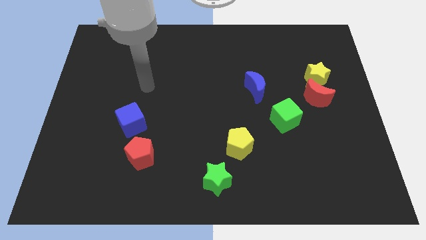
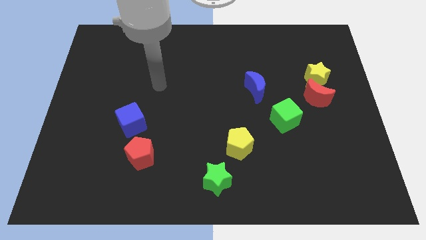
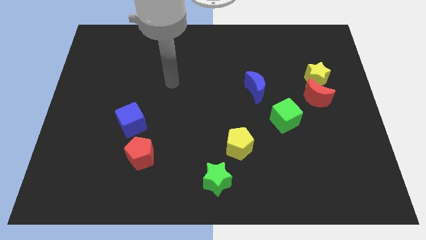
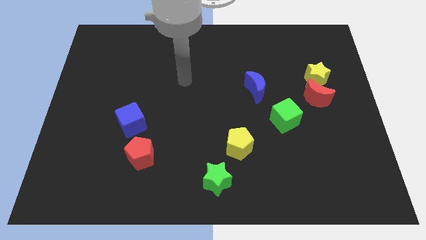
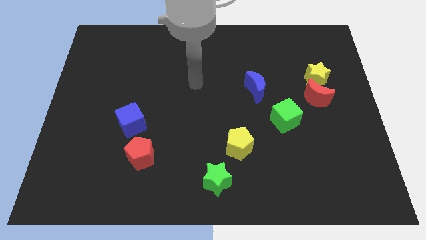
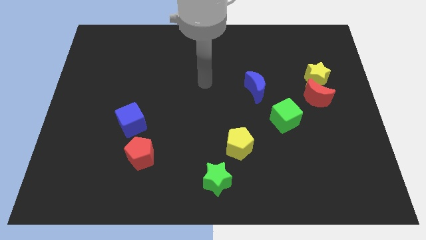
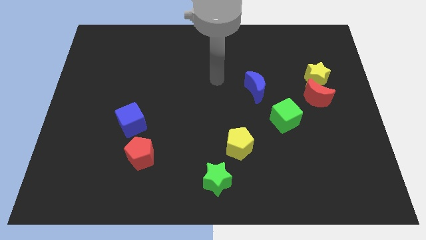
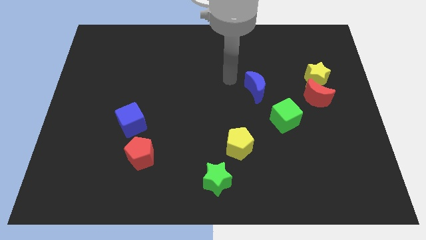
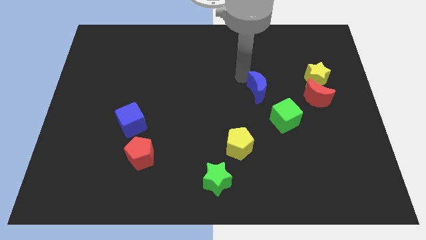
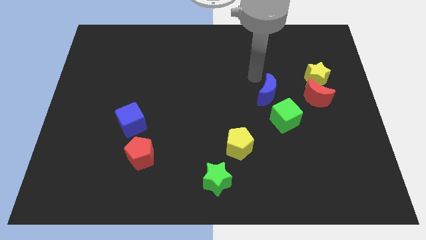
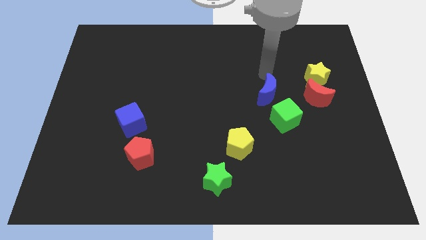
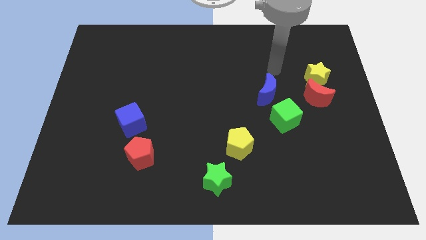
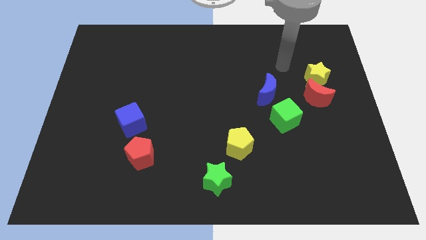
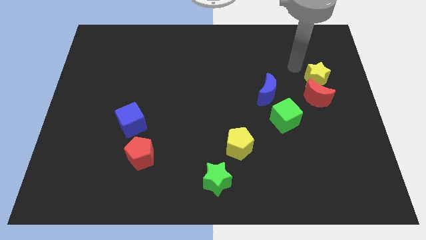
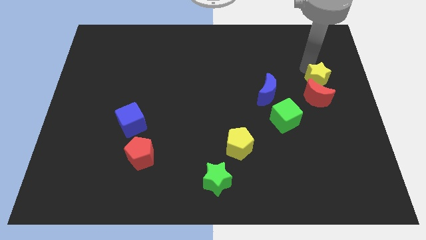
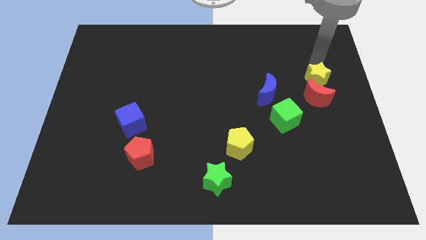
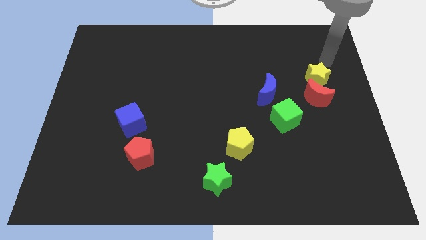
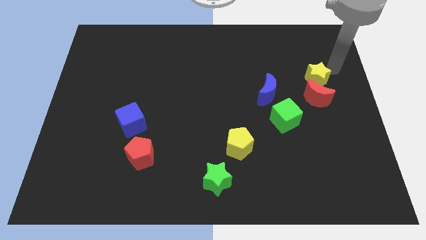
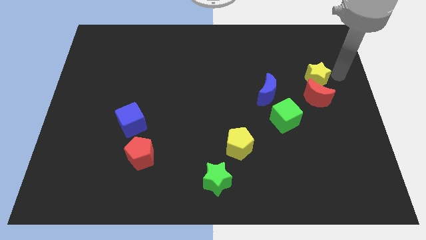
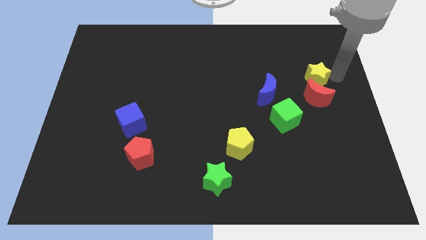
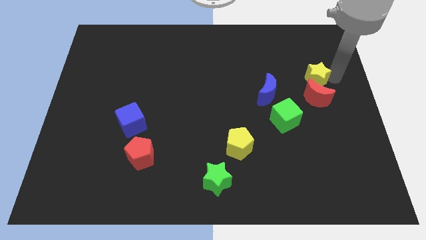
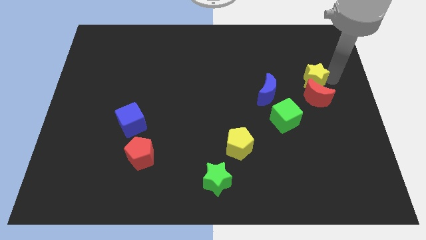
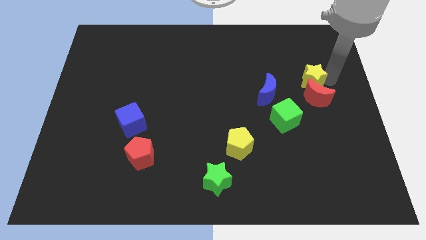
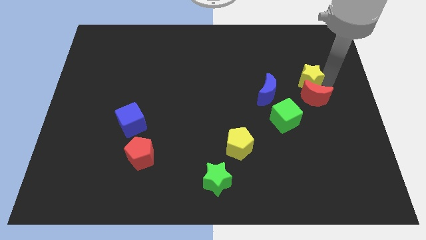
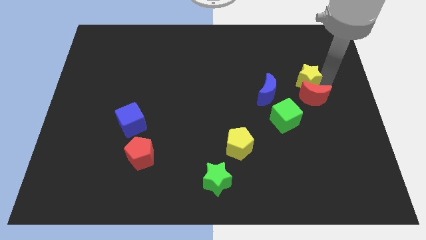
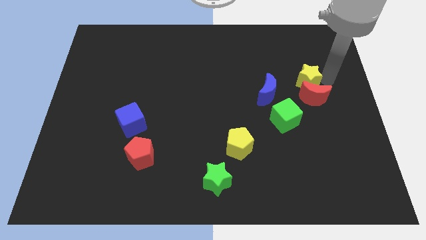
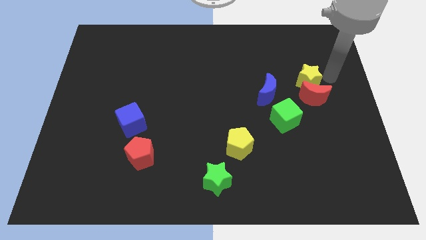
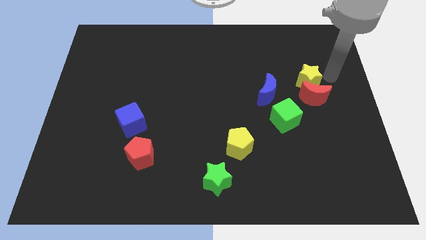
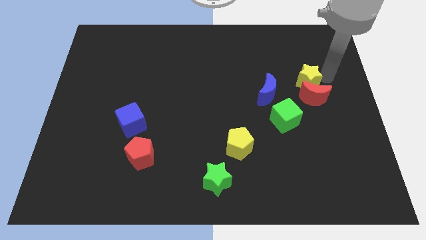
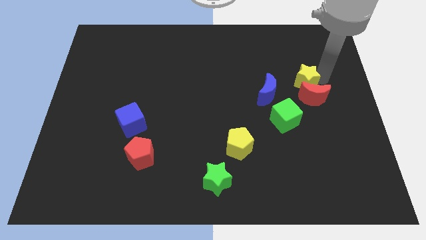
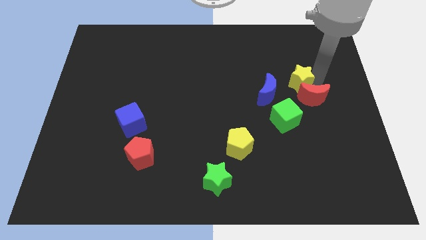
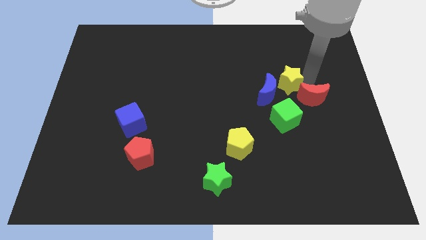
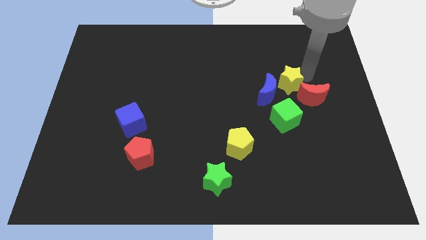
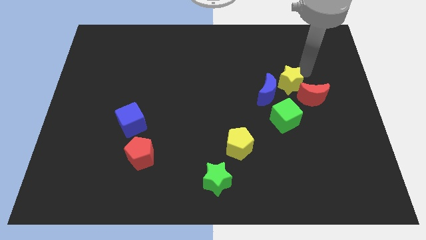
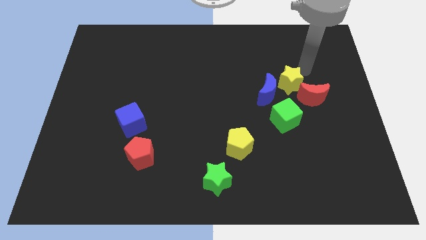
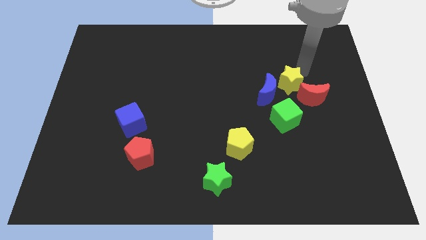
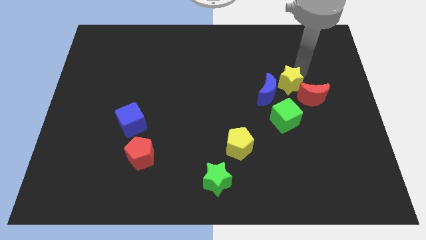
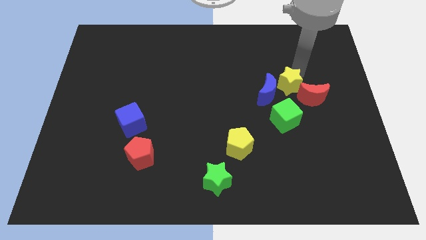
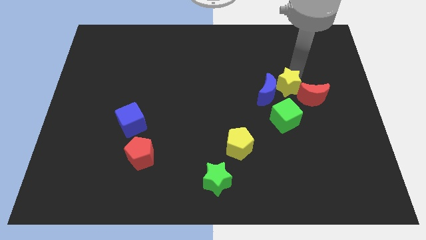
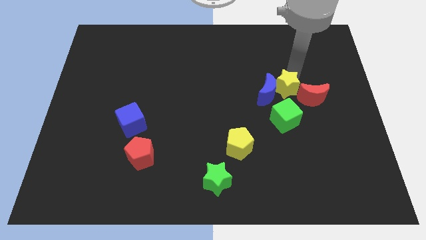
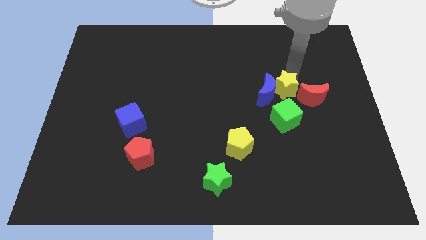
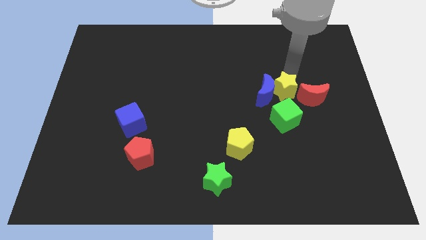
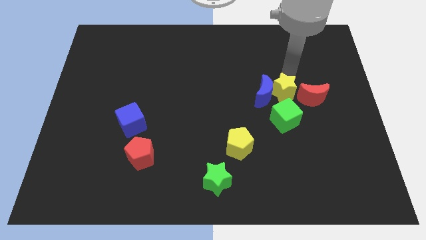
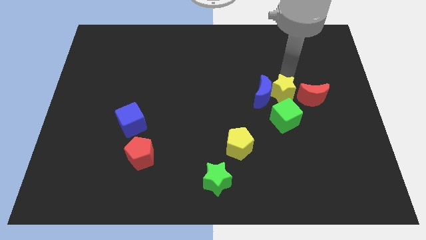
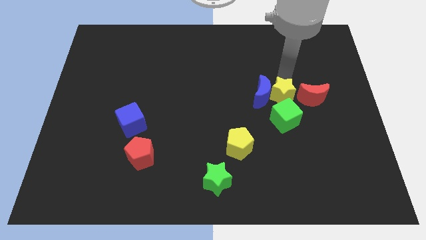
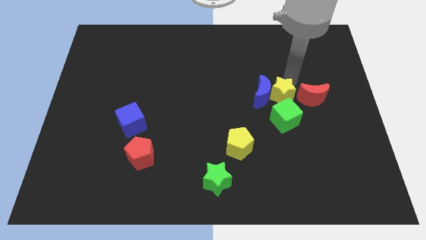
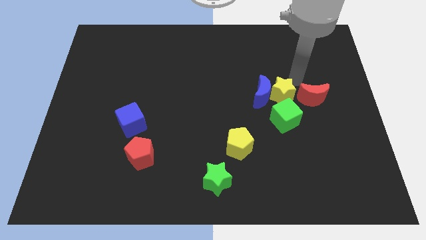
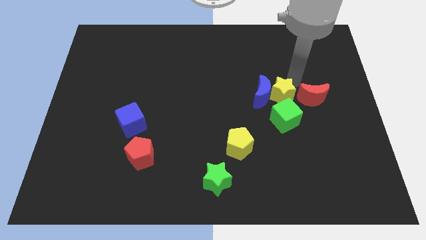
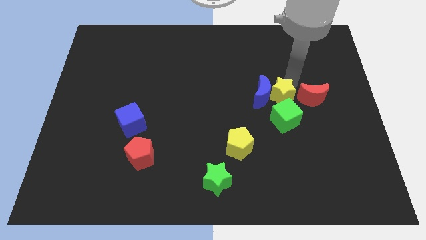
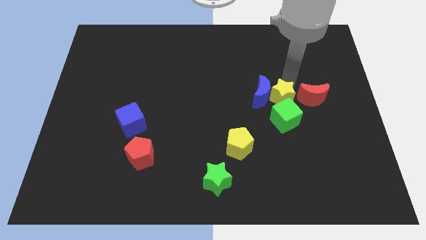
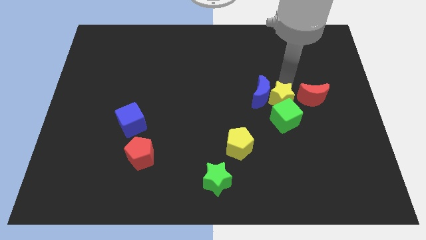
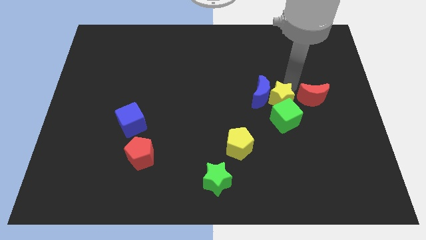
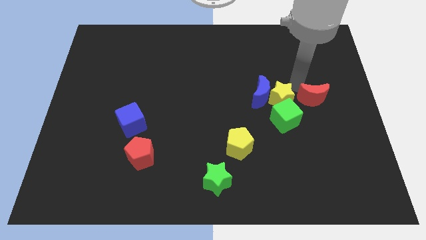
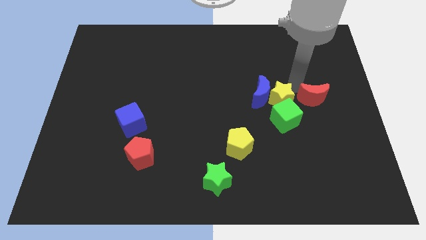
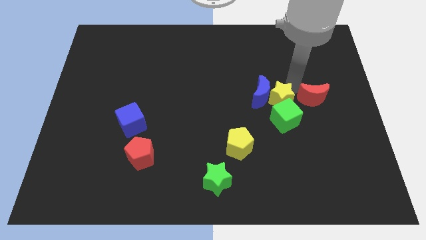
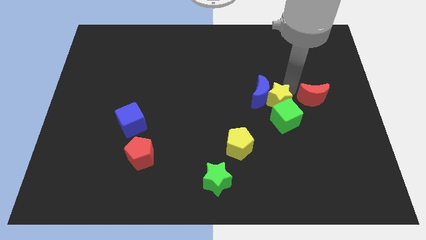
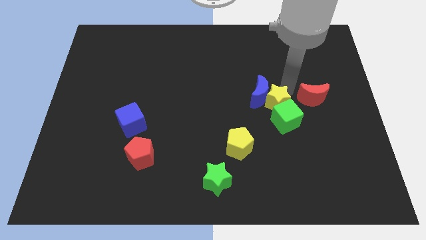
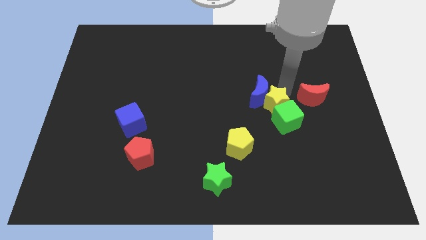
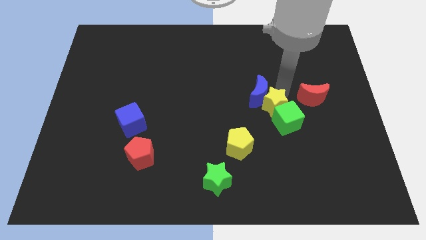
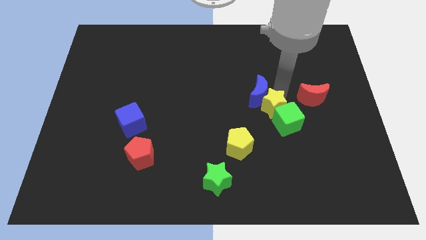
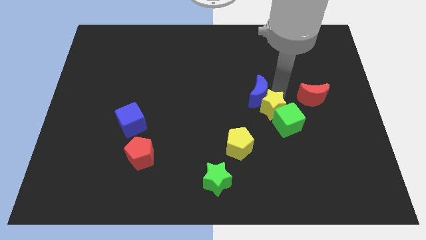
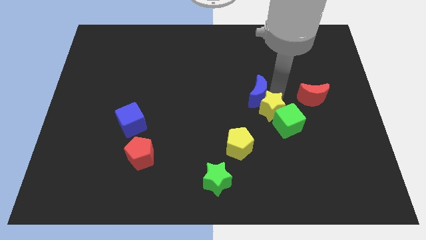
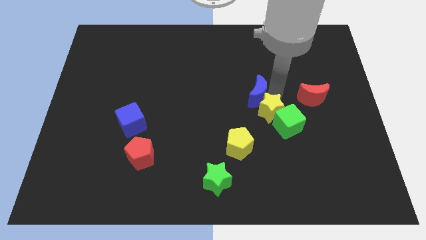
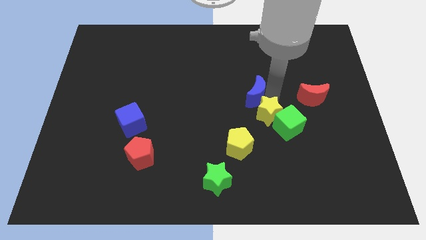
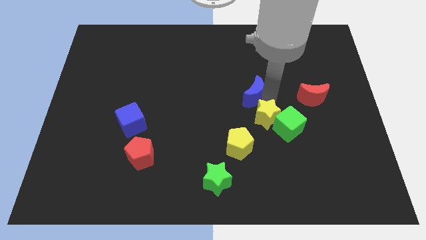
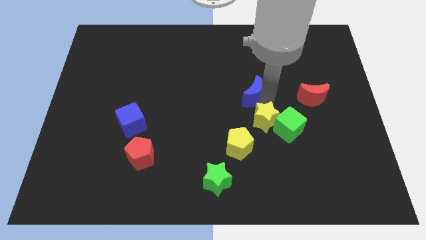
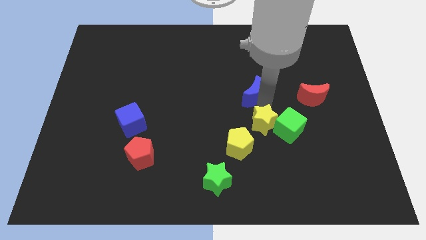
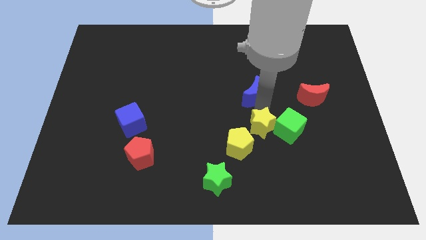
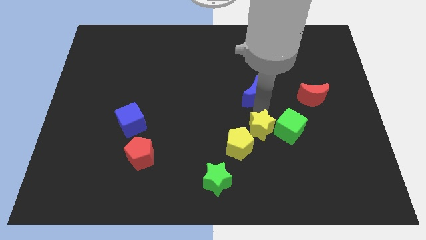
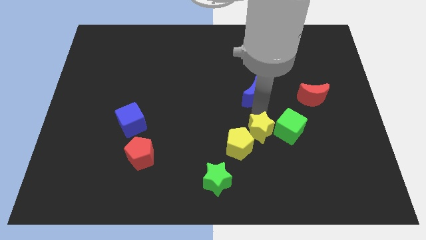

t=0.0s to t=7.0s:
slide the yellow star next to the yellow pentagon

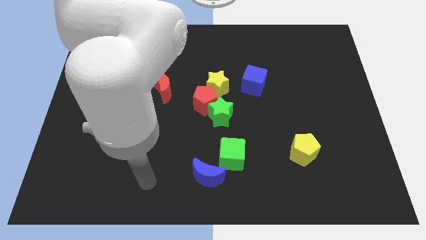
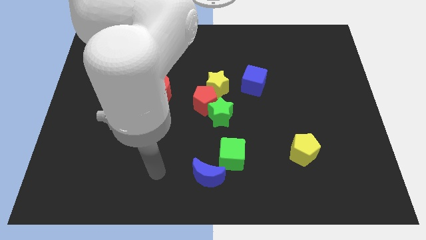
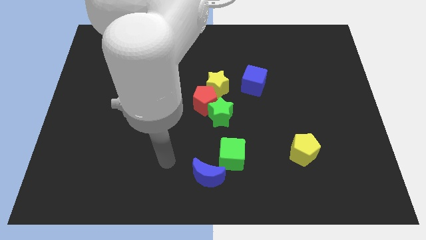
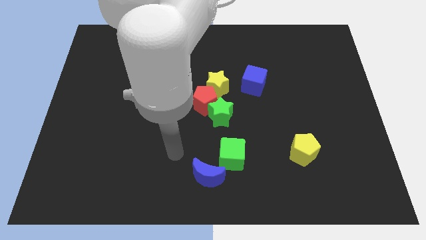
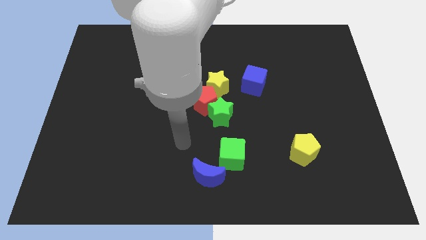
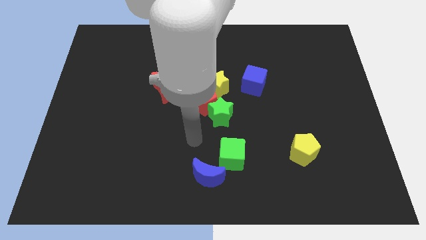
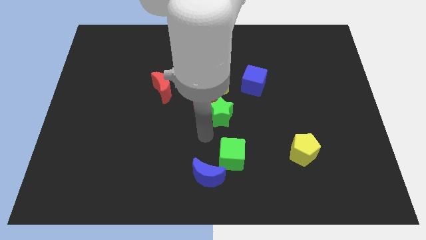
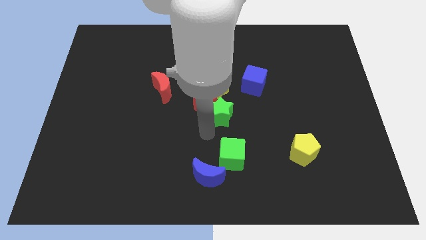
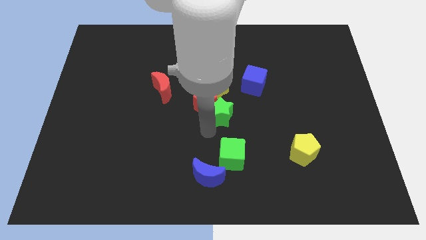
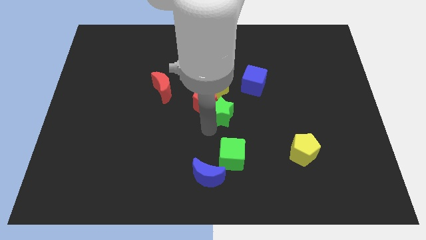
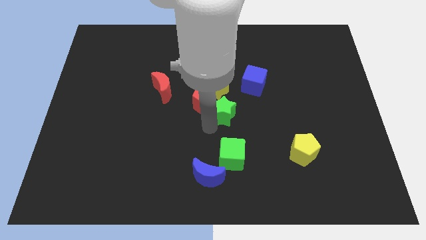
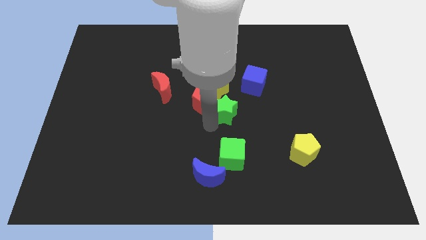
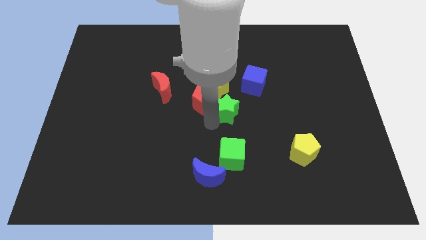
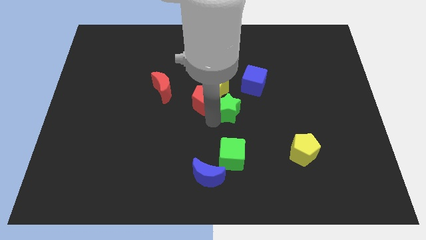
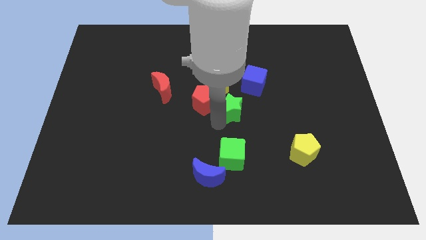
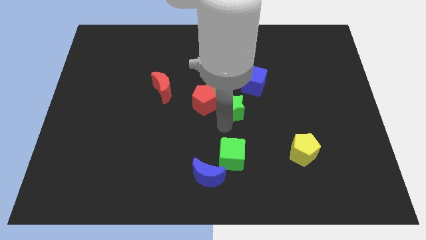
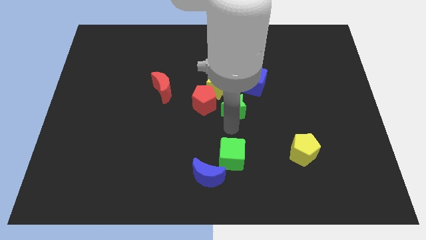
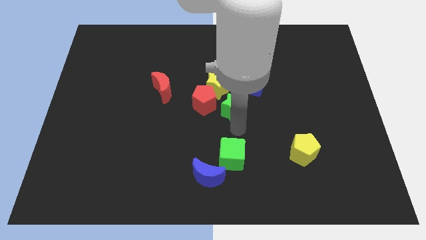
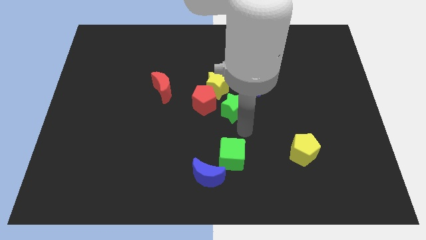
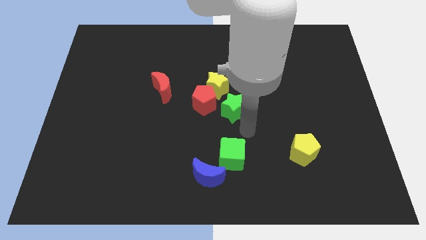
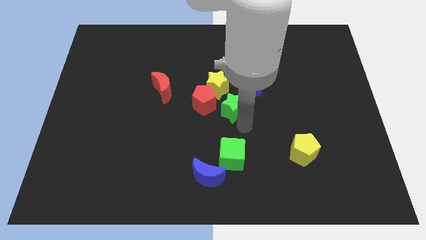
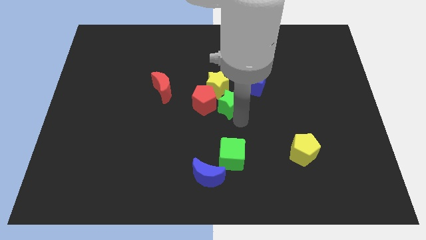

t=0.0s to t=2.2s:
move the green star close to the yellow star
